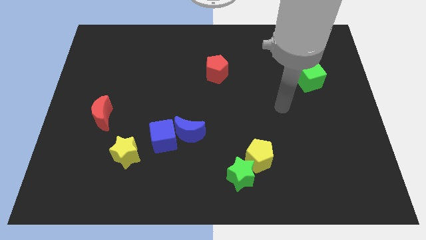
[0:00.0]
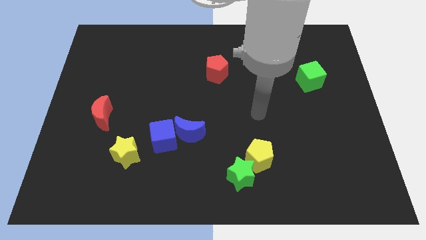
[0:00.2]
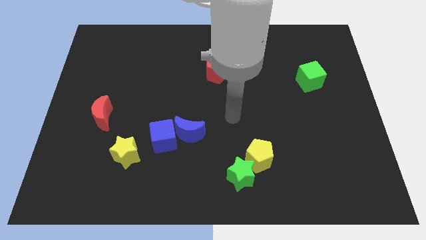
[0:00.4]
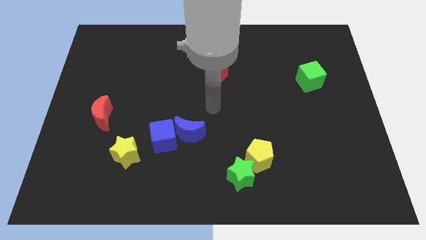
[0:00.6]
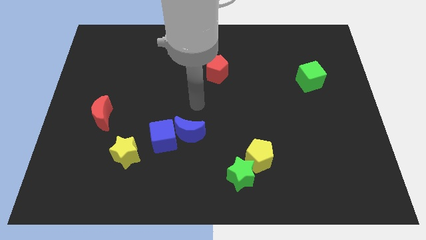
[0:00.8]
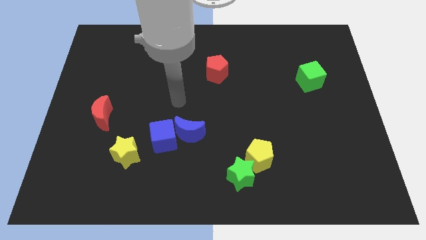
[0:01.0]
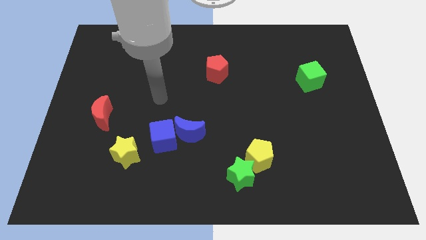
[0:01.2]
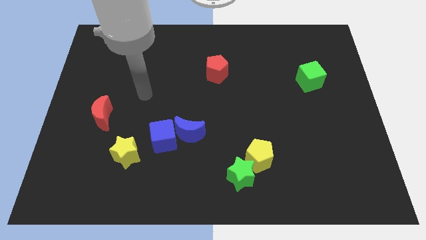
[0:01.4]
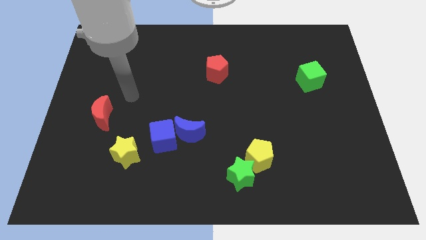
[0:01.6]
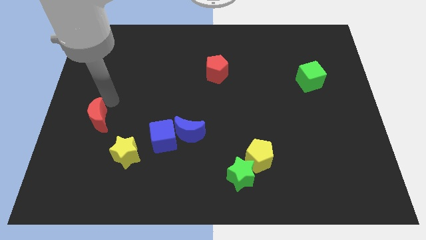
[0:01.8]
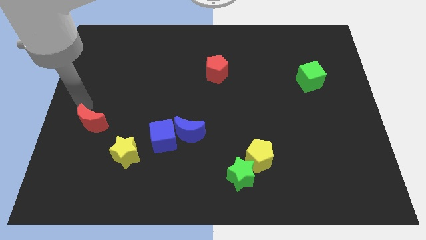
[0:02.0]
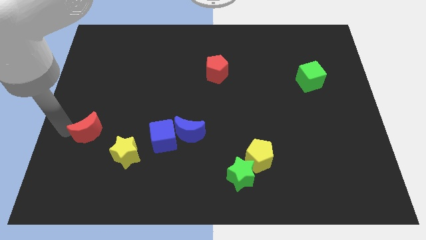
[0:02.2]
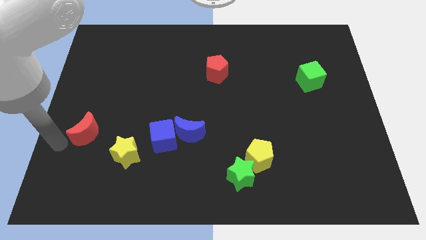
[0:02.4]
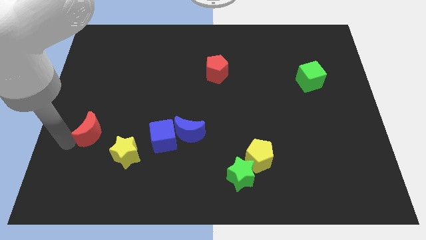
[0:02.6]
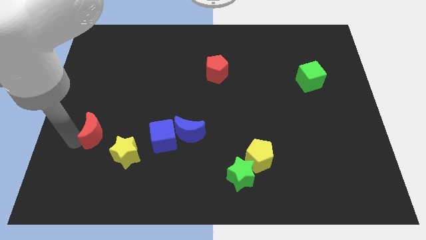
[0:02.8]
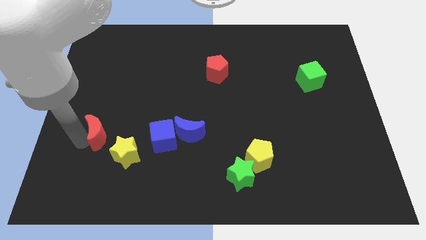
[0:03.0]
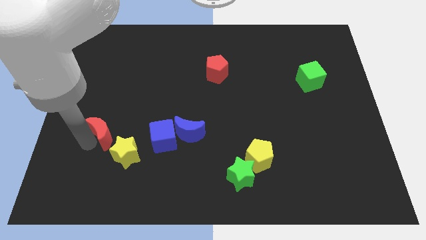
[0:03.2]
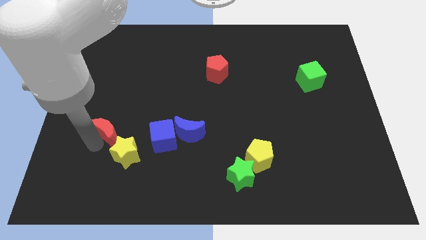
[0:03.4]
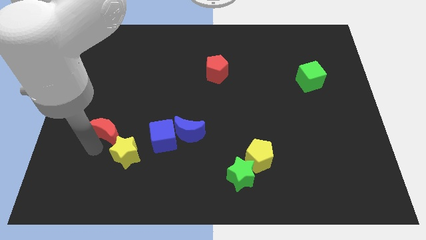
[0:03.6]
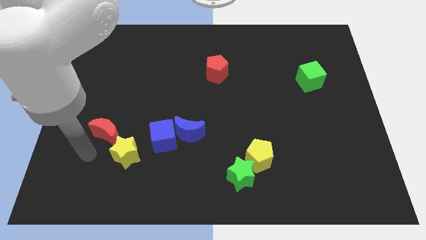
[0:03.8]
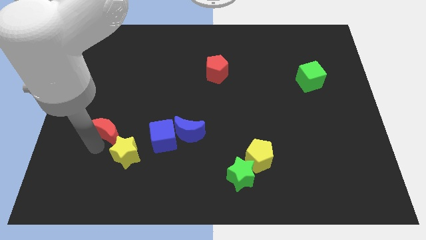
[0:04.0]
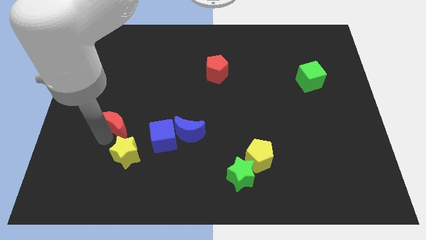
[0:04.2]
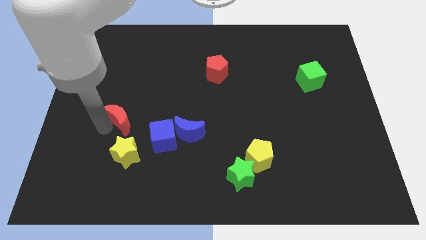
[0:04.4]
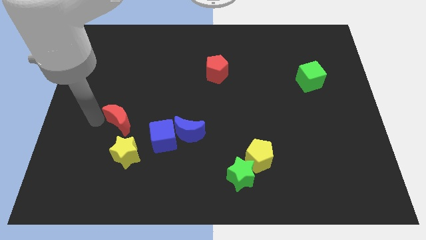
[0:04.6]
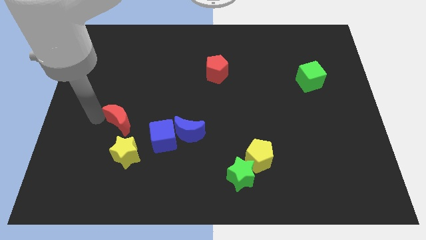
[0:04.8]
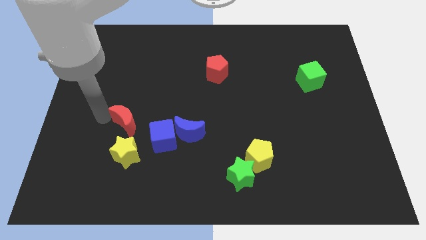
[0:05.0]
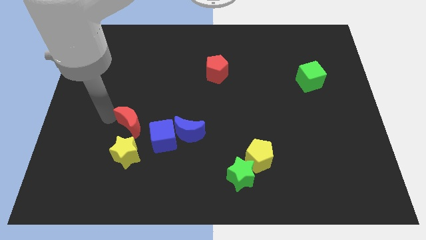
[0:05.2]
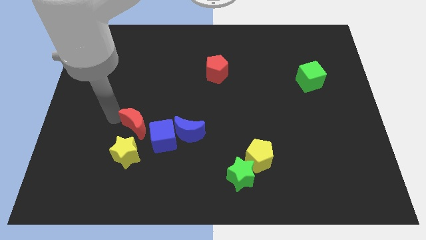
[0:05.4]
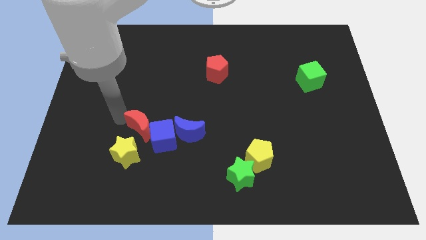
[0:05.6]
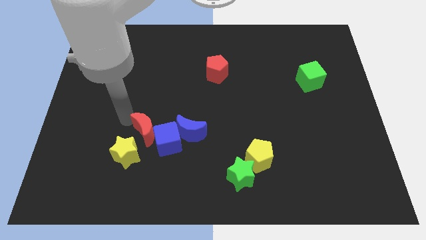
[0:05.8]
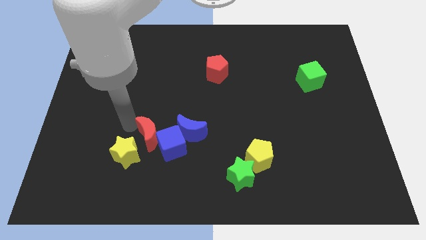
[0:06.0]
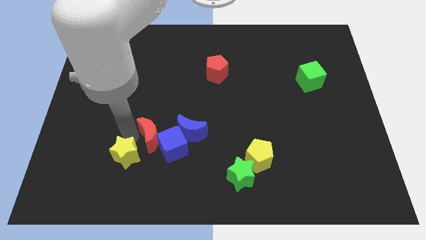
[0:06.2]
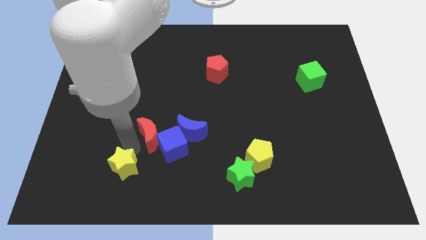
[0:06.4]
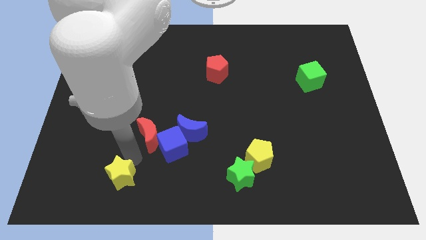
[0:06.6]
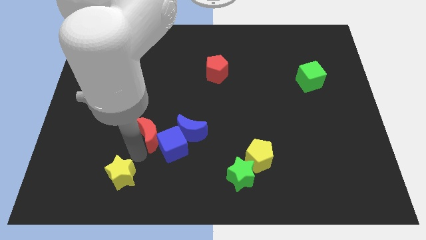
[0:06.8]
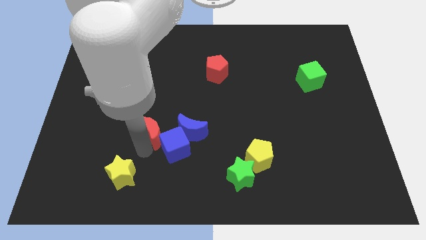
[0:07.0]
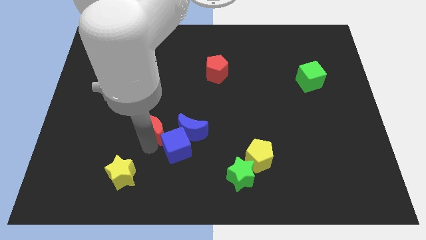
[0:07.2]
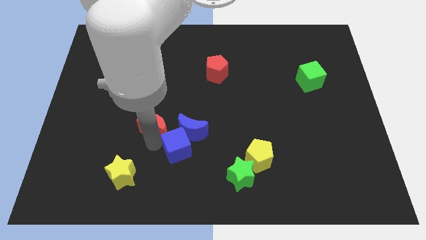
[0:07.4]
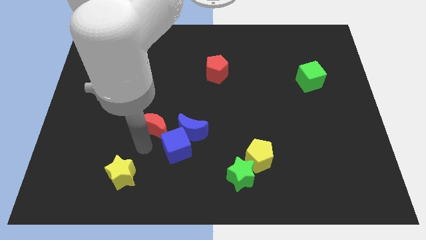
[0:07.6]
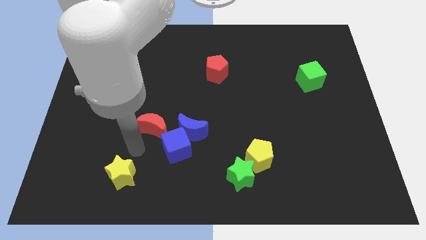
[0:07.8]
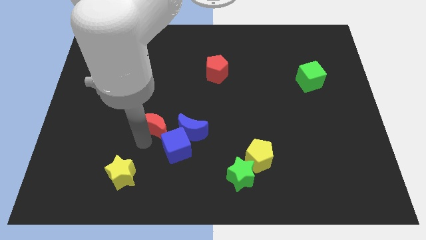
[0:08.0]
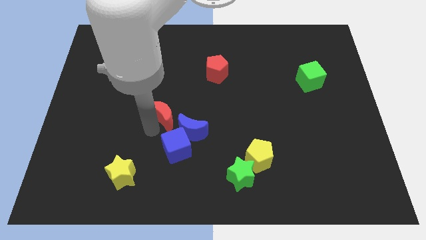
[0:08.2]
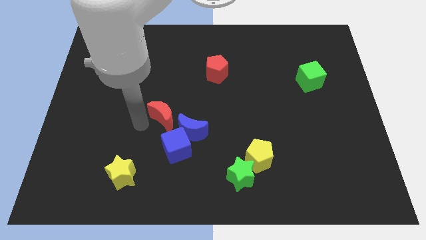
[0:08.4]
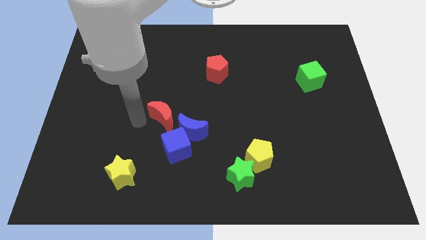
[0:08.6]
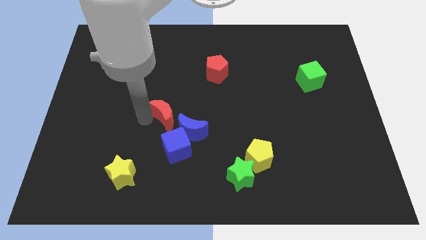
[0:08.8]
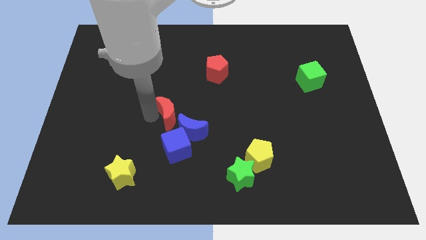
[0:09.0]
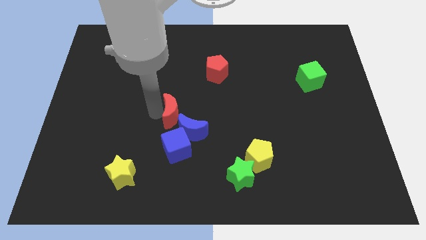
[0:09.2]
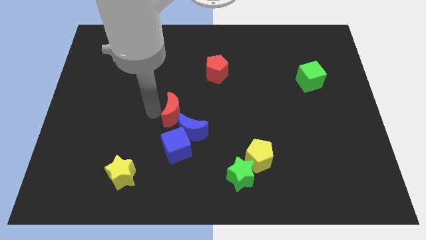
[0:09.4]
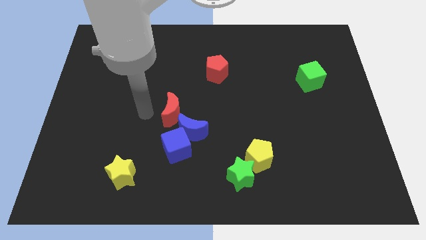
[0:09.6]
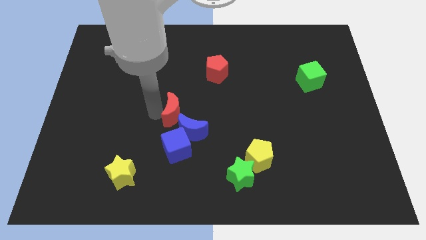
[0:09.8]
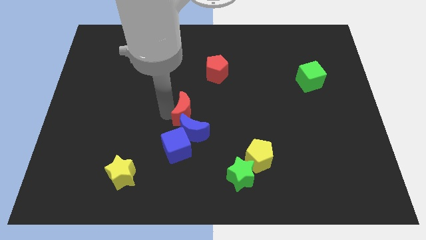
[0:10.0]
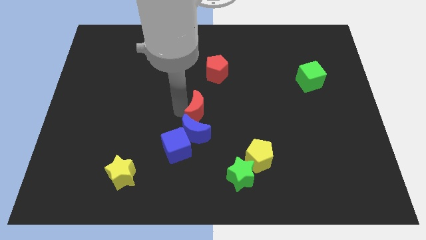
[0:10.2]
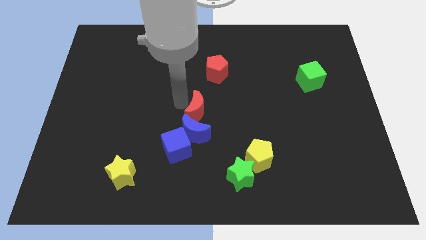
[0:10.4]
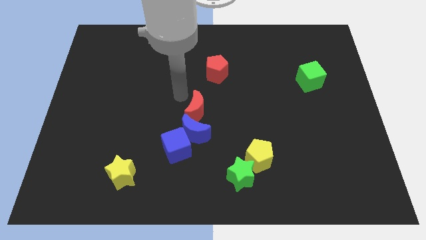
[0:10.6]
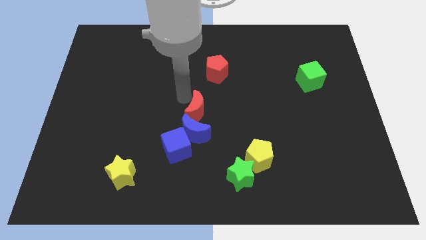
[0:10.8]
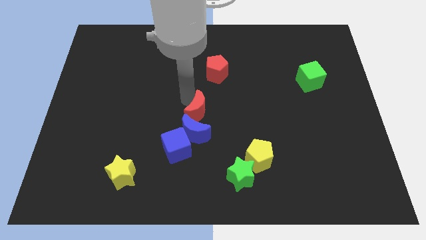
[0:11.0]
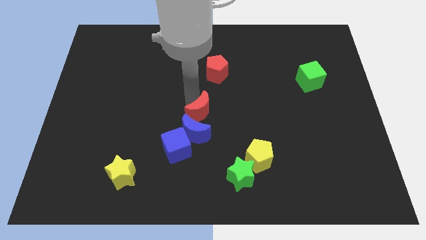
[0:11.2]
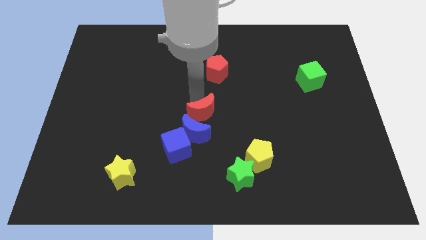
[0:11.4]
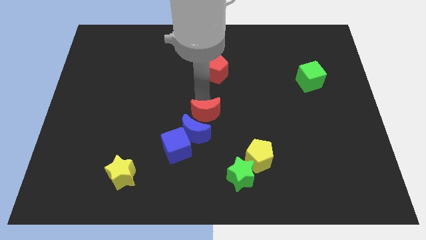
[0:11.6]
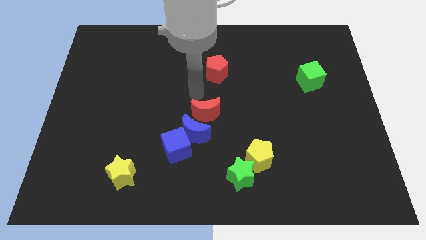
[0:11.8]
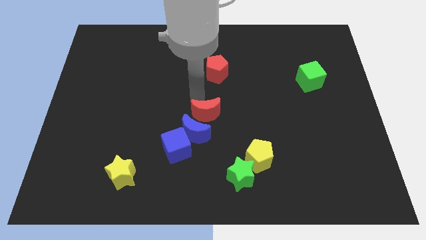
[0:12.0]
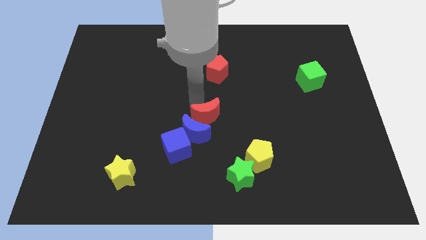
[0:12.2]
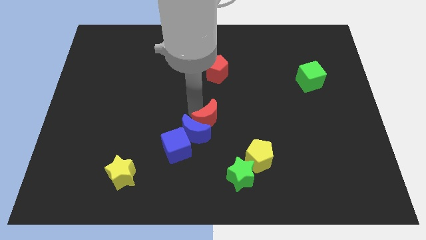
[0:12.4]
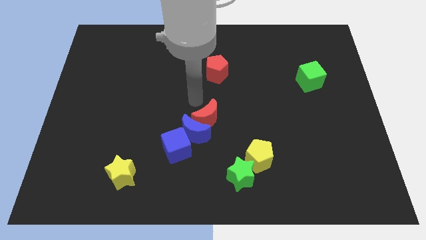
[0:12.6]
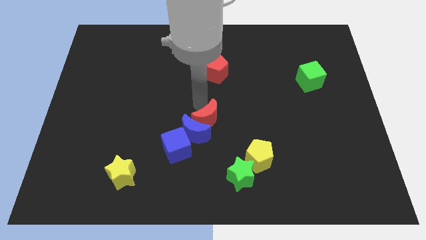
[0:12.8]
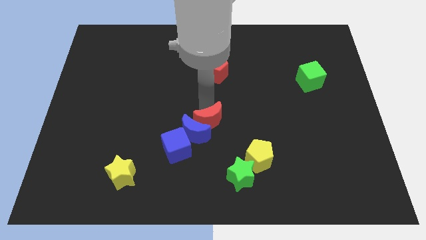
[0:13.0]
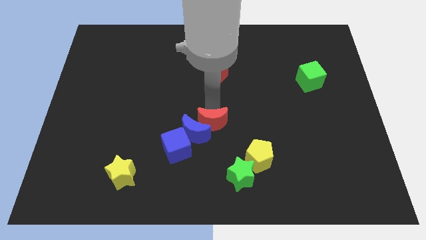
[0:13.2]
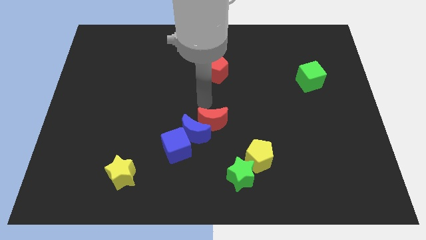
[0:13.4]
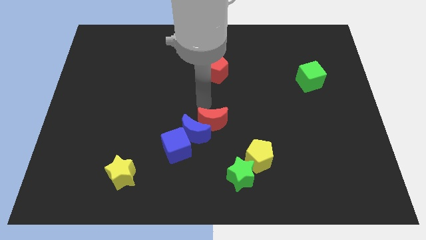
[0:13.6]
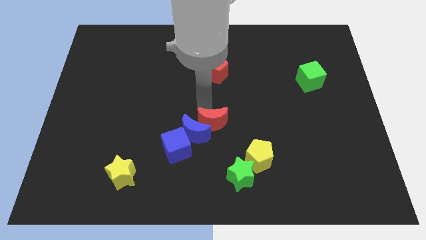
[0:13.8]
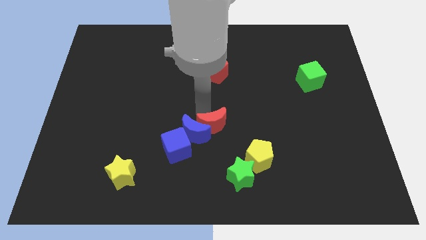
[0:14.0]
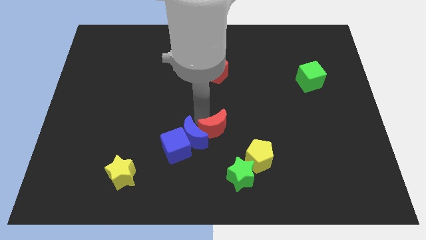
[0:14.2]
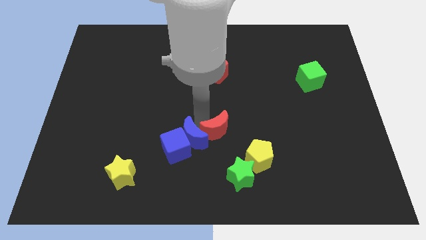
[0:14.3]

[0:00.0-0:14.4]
slide the red moon to the right of the blue cube
